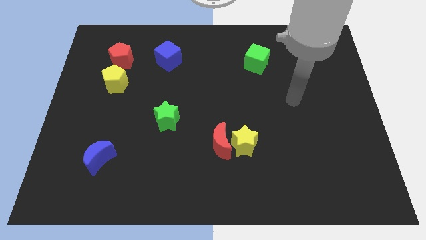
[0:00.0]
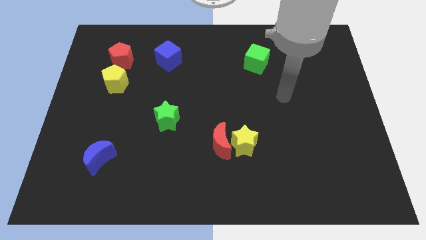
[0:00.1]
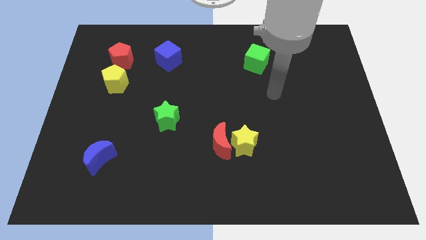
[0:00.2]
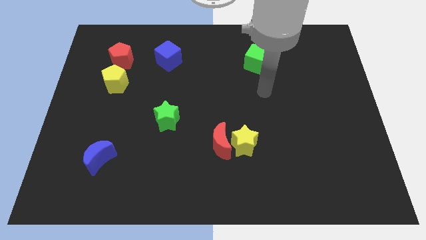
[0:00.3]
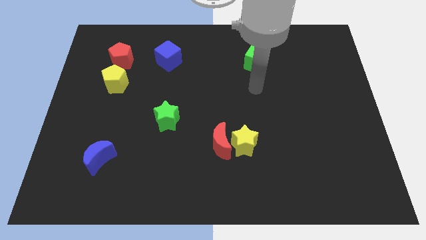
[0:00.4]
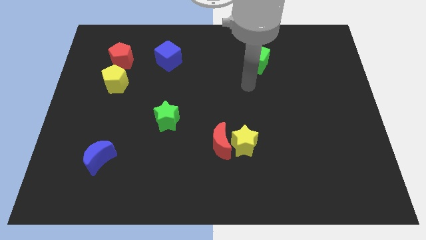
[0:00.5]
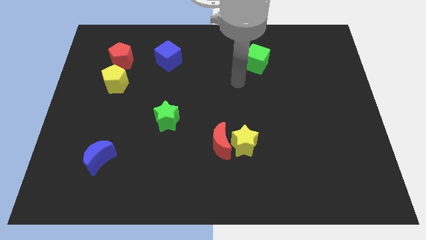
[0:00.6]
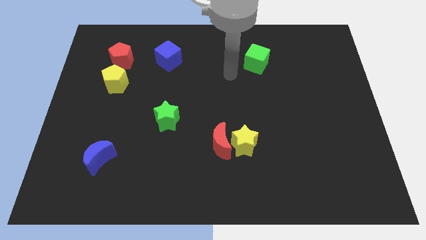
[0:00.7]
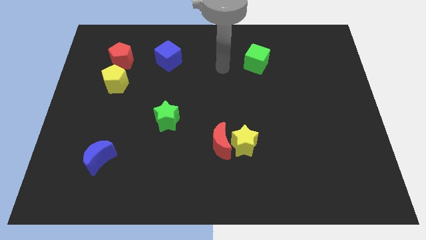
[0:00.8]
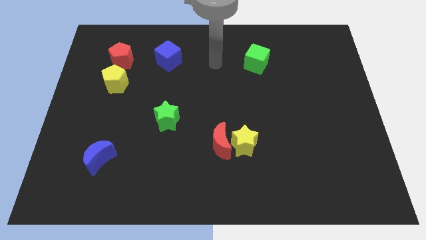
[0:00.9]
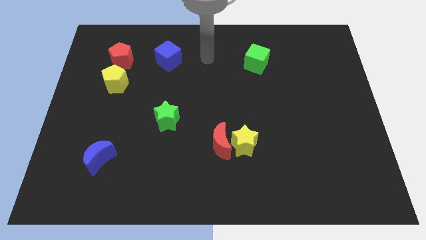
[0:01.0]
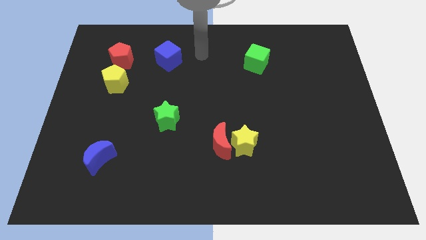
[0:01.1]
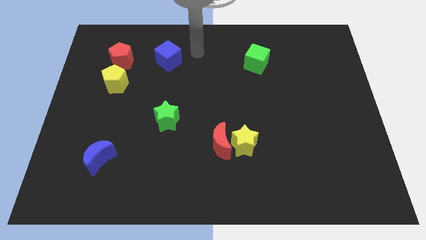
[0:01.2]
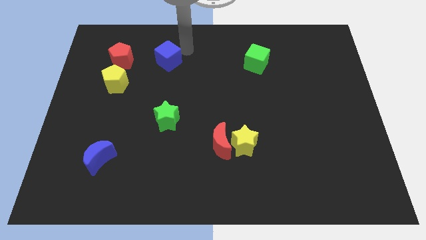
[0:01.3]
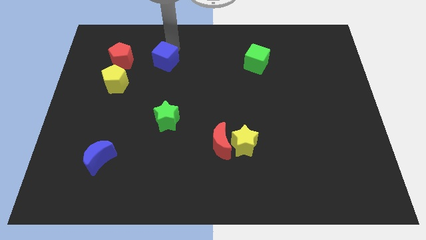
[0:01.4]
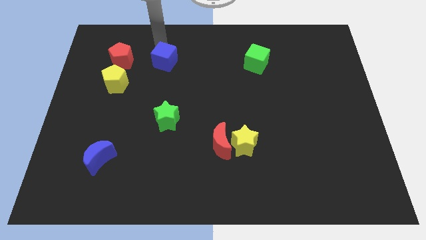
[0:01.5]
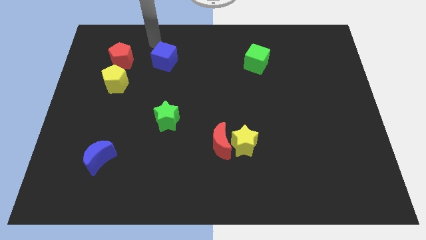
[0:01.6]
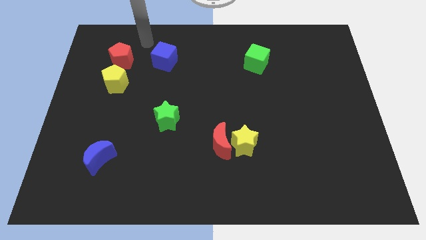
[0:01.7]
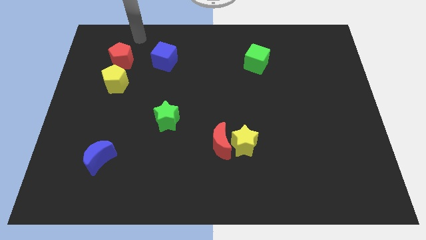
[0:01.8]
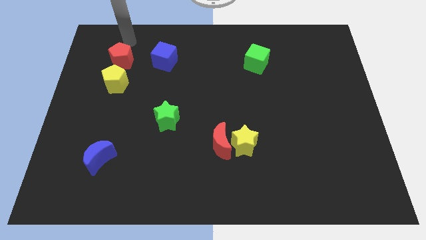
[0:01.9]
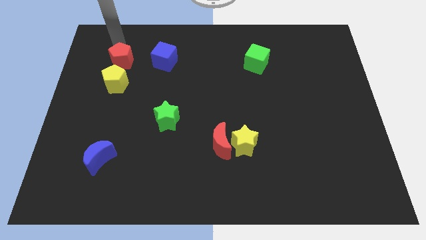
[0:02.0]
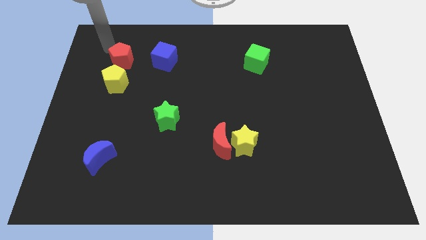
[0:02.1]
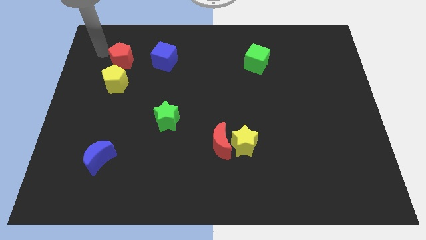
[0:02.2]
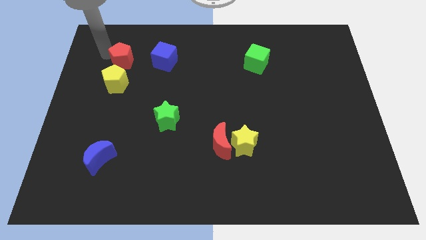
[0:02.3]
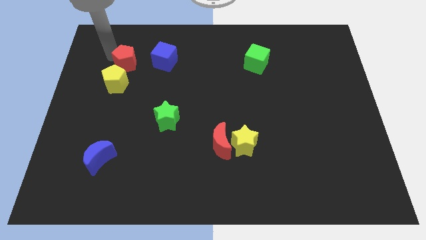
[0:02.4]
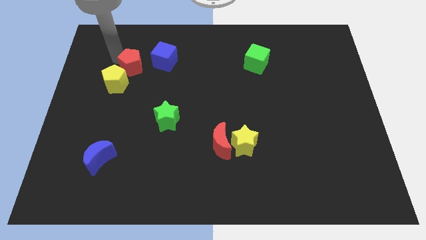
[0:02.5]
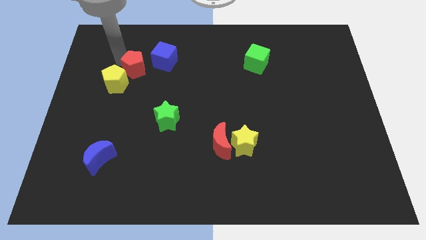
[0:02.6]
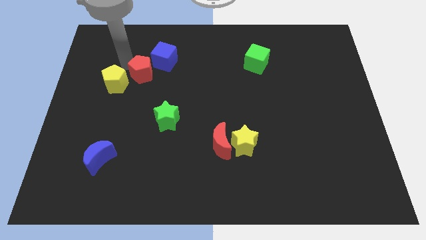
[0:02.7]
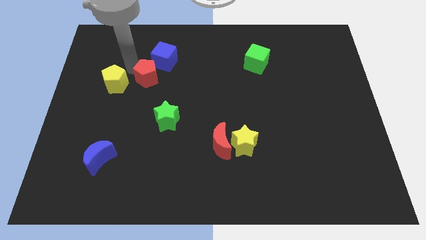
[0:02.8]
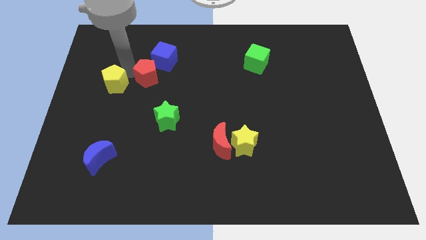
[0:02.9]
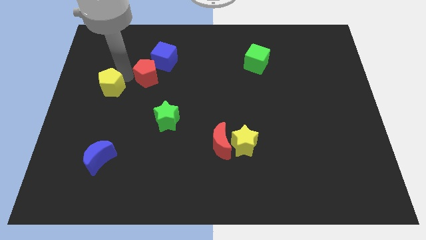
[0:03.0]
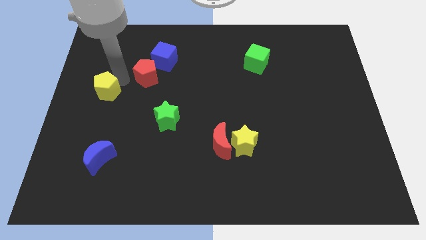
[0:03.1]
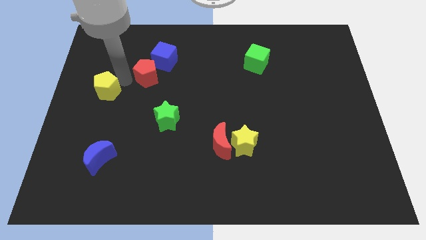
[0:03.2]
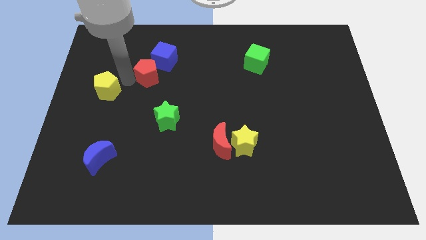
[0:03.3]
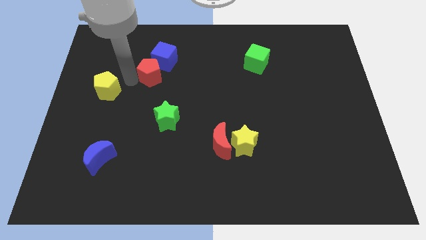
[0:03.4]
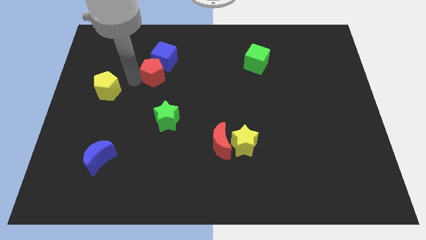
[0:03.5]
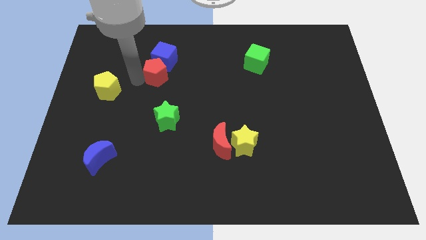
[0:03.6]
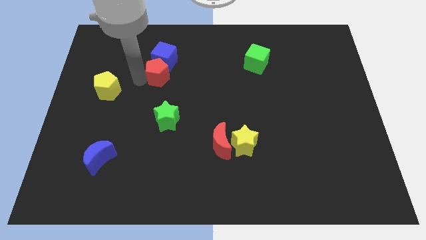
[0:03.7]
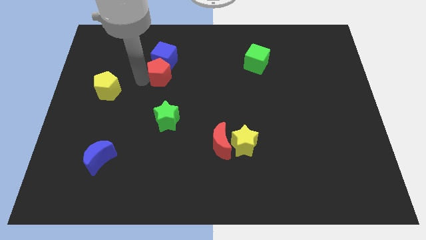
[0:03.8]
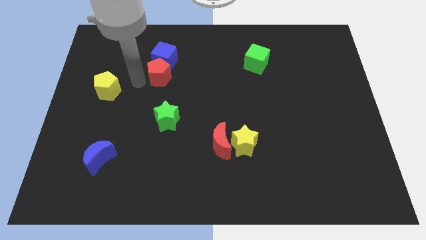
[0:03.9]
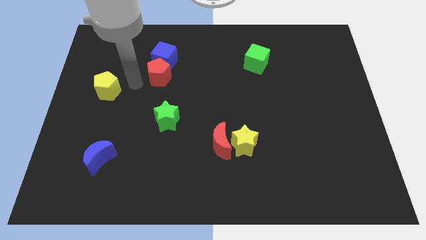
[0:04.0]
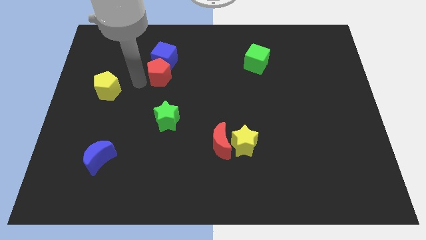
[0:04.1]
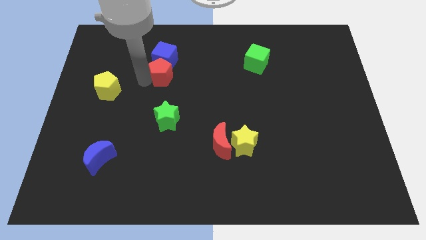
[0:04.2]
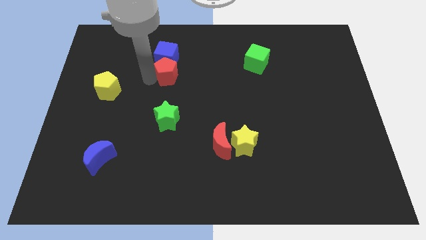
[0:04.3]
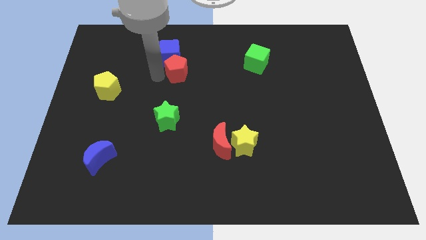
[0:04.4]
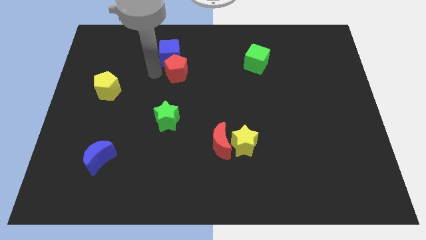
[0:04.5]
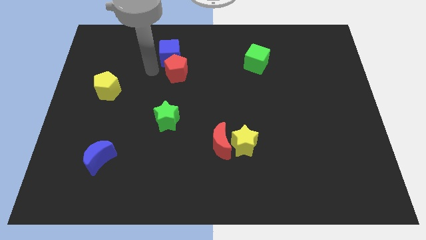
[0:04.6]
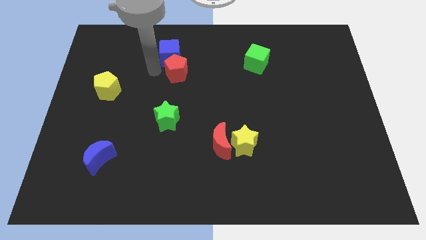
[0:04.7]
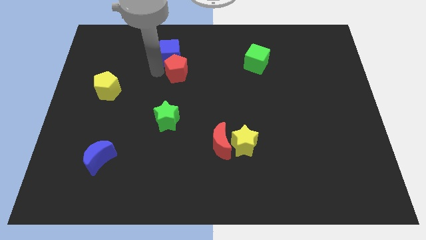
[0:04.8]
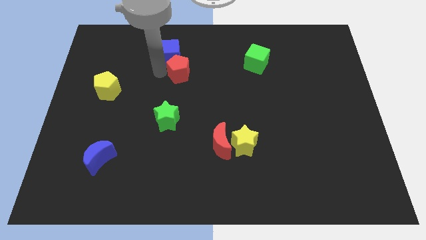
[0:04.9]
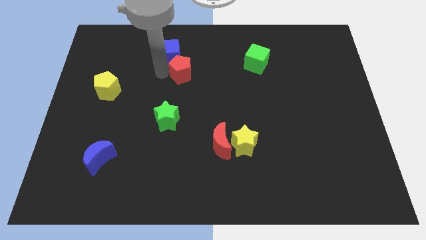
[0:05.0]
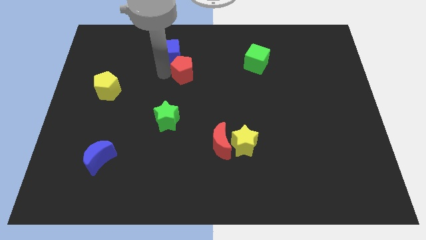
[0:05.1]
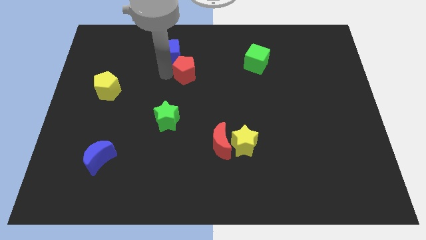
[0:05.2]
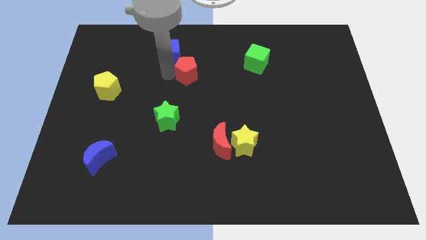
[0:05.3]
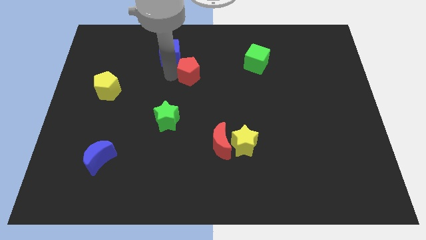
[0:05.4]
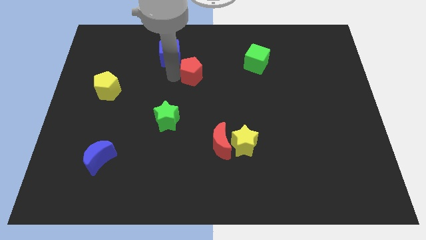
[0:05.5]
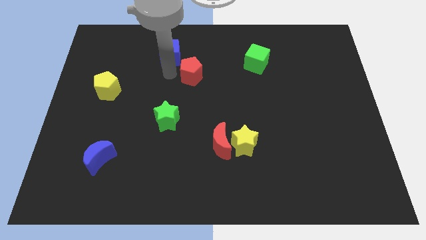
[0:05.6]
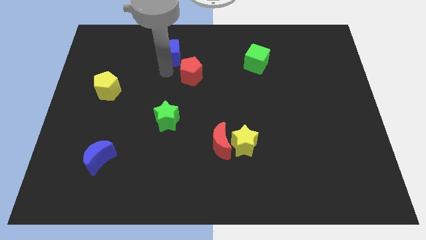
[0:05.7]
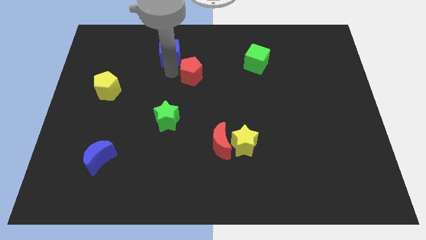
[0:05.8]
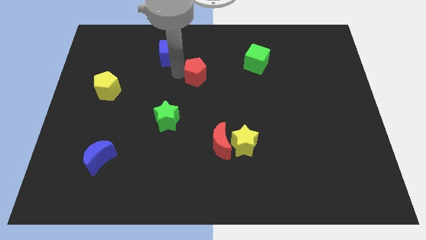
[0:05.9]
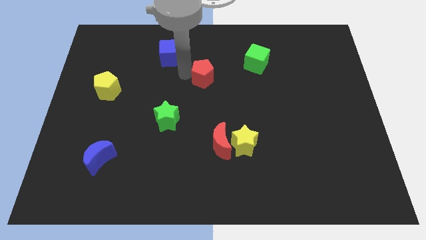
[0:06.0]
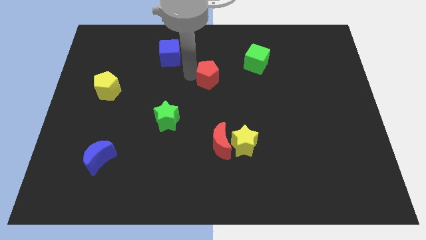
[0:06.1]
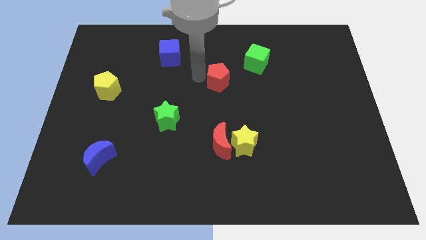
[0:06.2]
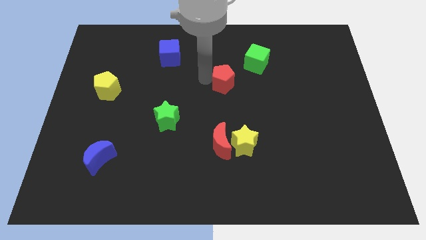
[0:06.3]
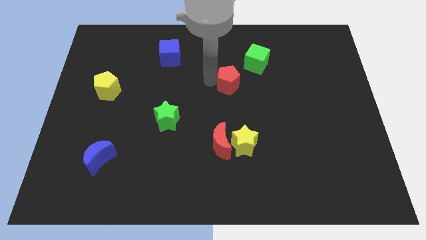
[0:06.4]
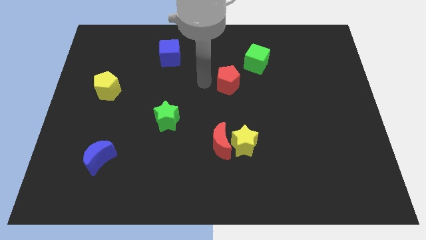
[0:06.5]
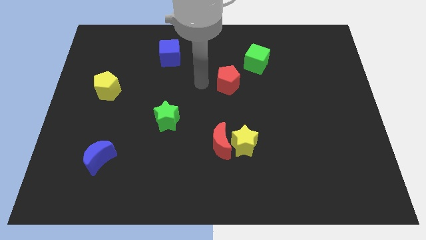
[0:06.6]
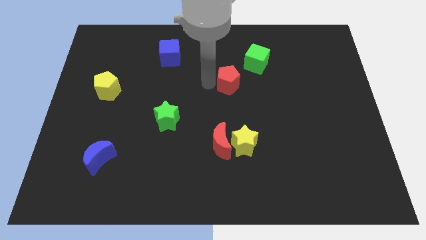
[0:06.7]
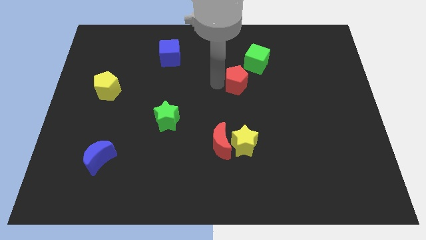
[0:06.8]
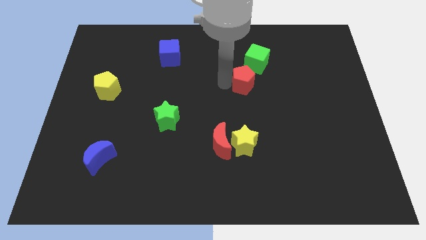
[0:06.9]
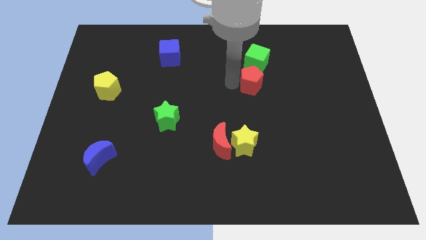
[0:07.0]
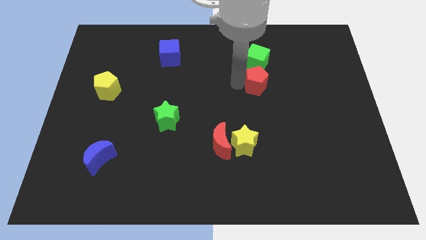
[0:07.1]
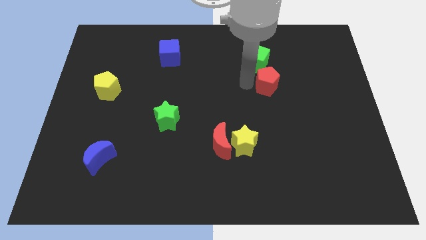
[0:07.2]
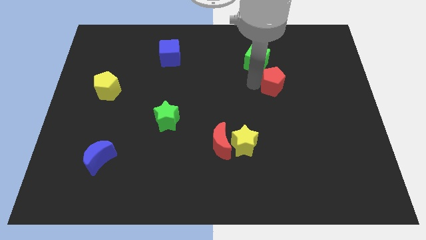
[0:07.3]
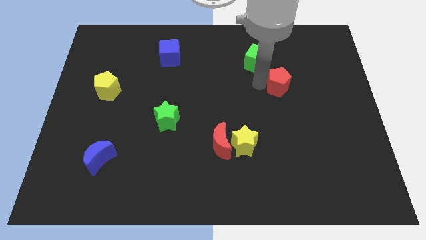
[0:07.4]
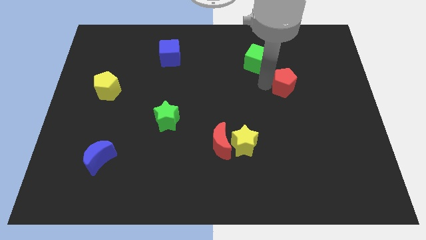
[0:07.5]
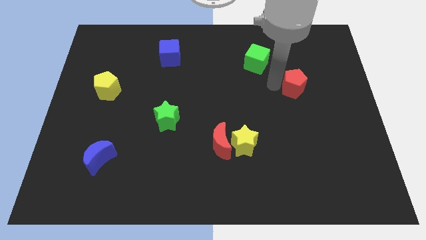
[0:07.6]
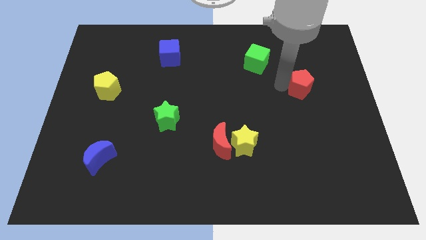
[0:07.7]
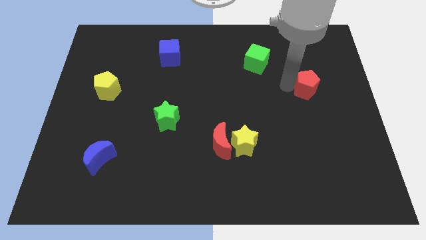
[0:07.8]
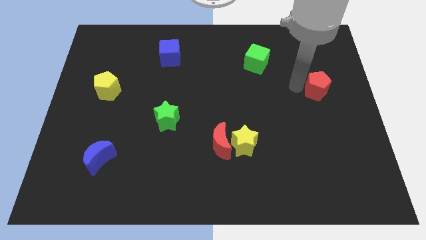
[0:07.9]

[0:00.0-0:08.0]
put the red pentagon to the right side
